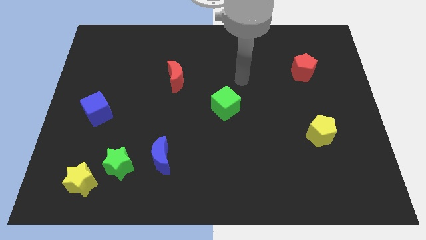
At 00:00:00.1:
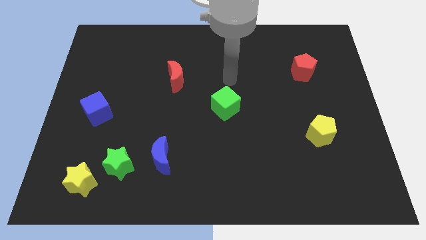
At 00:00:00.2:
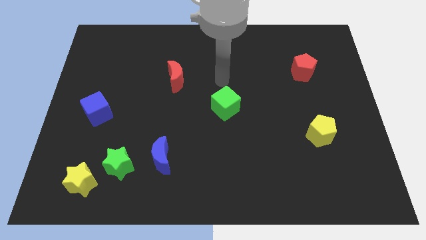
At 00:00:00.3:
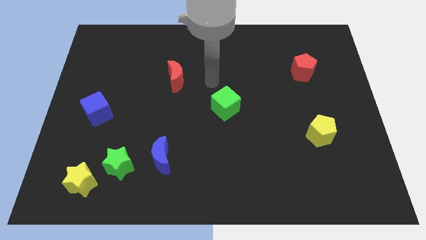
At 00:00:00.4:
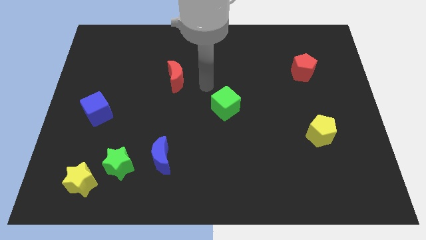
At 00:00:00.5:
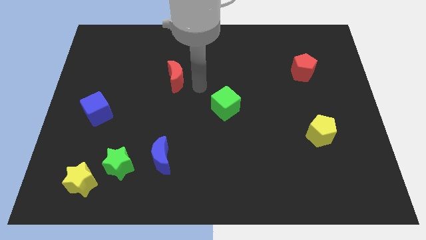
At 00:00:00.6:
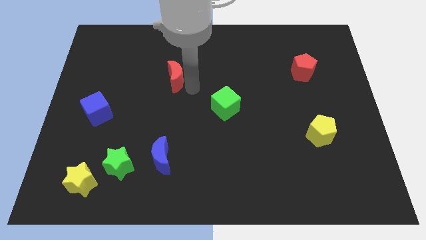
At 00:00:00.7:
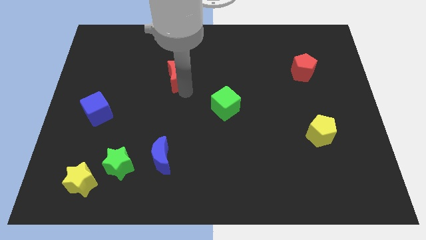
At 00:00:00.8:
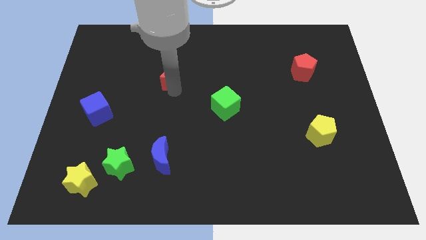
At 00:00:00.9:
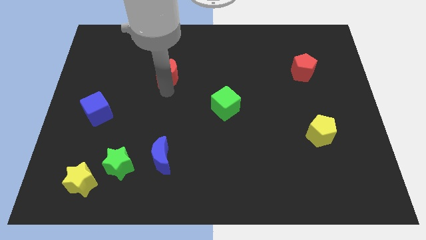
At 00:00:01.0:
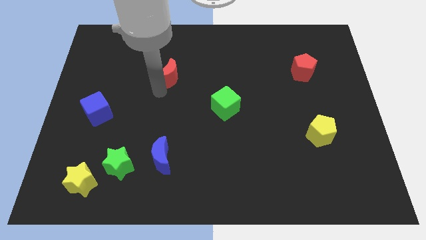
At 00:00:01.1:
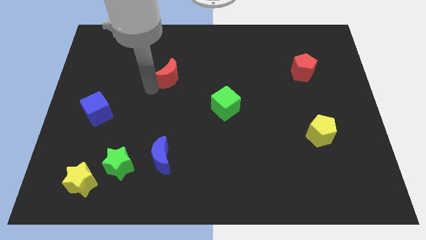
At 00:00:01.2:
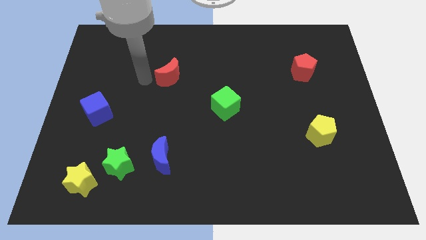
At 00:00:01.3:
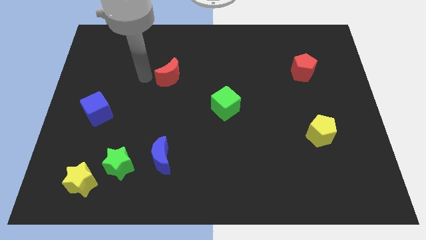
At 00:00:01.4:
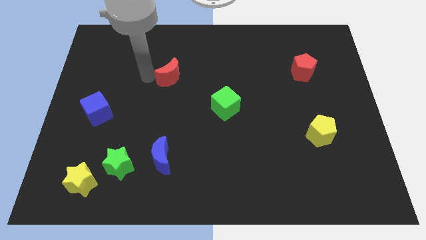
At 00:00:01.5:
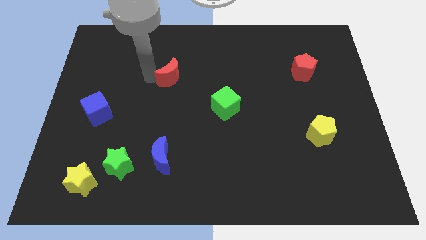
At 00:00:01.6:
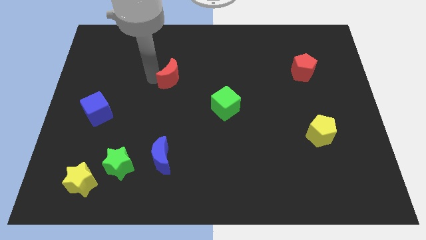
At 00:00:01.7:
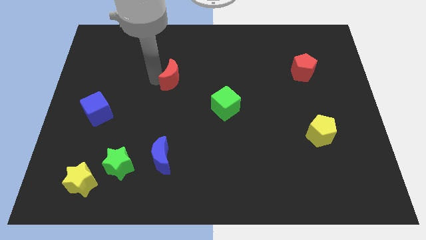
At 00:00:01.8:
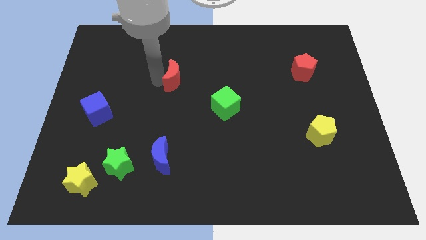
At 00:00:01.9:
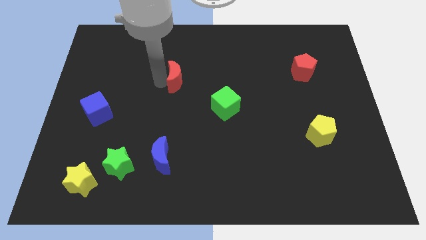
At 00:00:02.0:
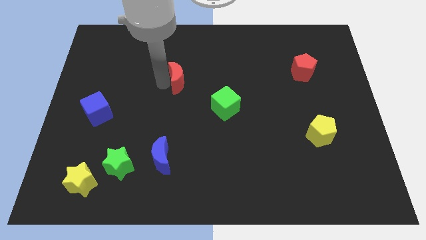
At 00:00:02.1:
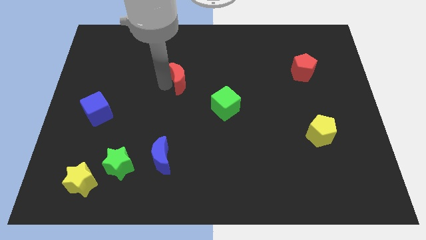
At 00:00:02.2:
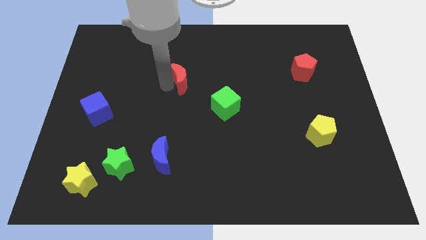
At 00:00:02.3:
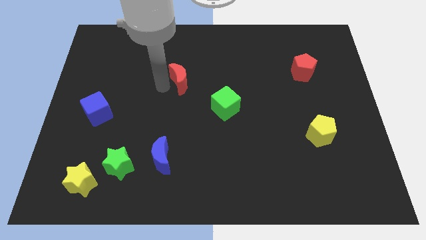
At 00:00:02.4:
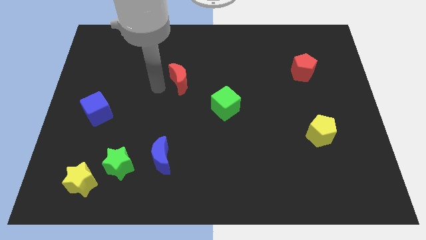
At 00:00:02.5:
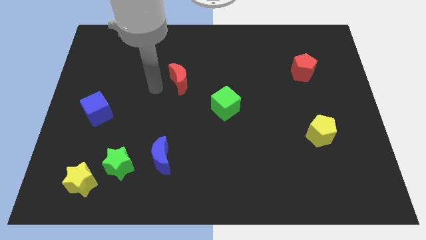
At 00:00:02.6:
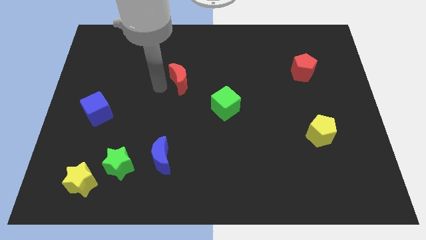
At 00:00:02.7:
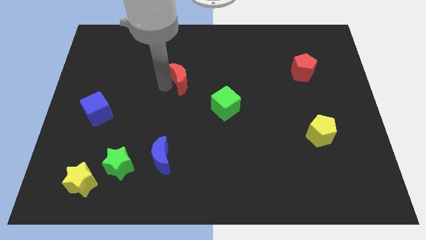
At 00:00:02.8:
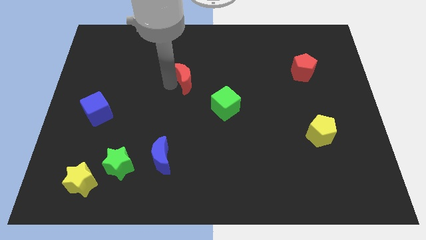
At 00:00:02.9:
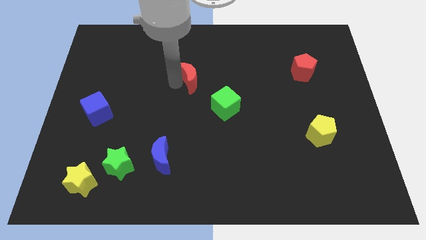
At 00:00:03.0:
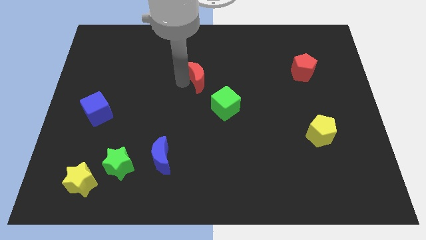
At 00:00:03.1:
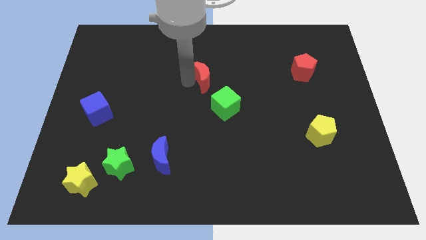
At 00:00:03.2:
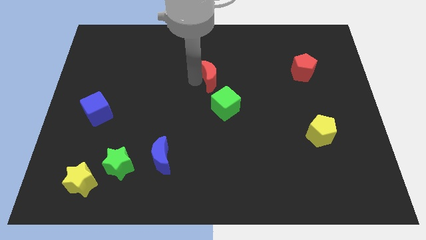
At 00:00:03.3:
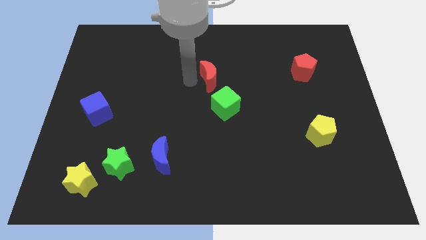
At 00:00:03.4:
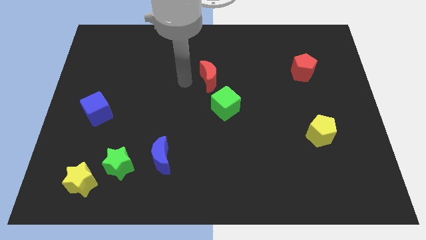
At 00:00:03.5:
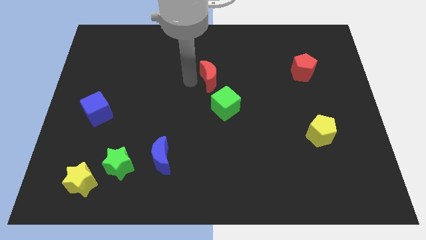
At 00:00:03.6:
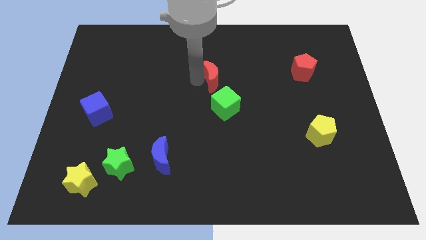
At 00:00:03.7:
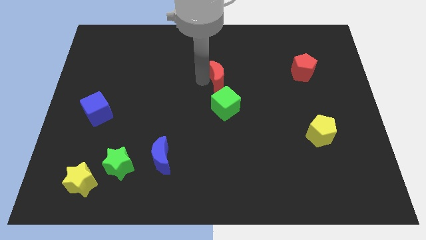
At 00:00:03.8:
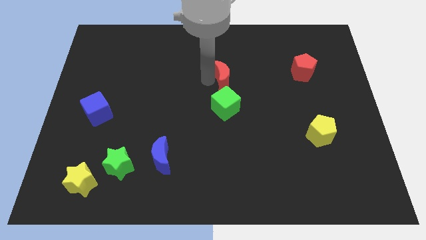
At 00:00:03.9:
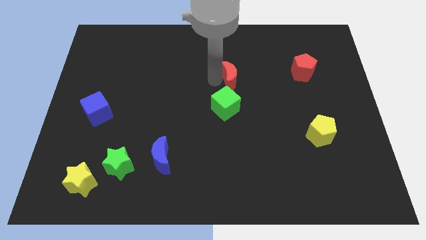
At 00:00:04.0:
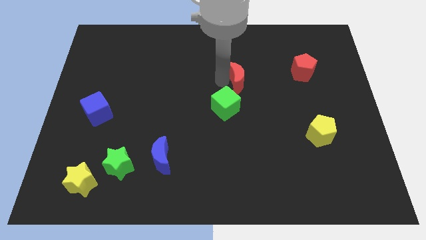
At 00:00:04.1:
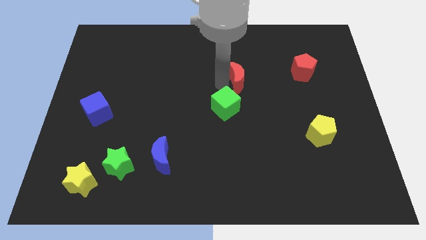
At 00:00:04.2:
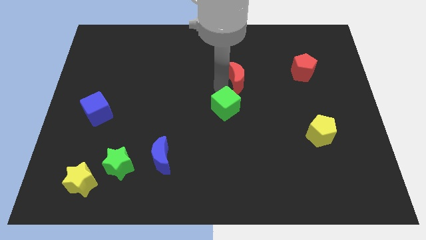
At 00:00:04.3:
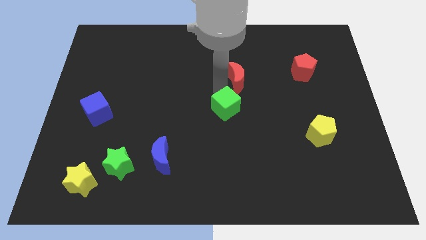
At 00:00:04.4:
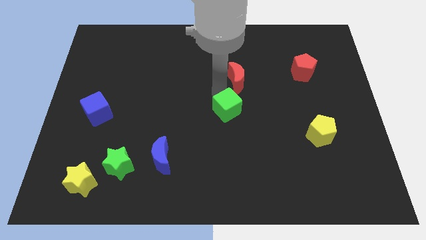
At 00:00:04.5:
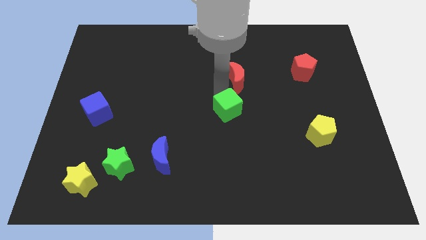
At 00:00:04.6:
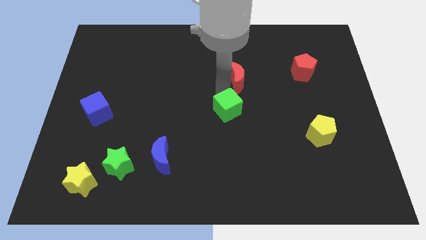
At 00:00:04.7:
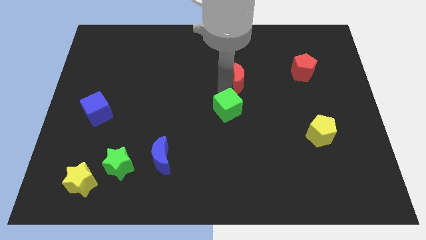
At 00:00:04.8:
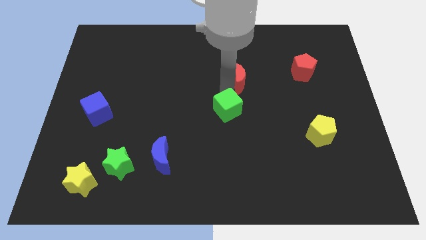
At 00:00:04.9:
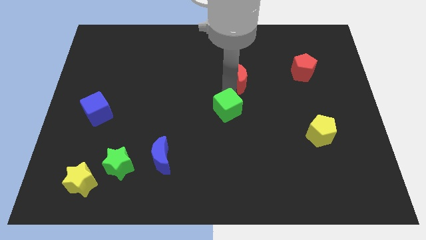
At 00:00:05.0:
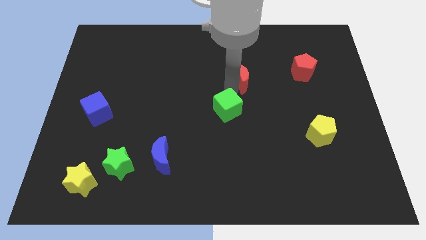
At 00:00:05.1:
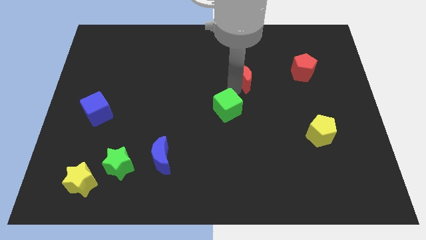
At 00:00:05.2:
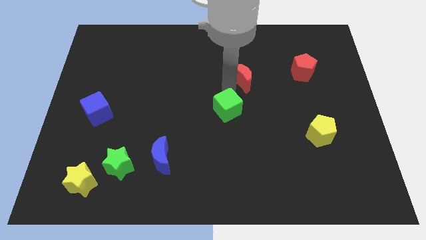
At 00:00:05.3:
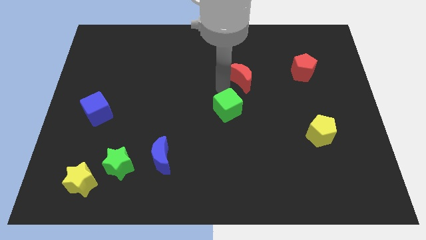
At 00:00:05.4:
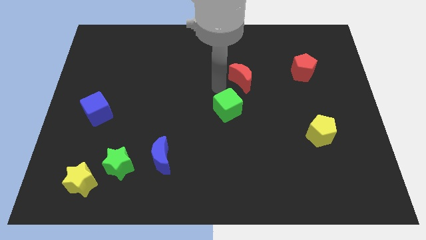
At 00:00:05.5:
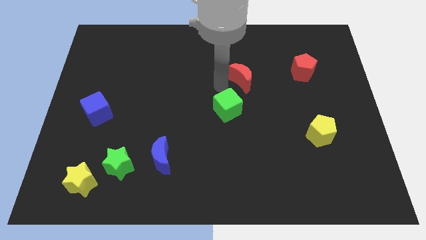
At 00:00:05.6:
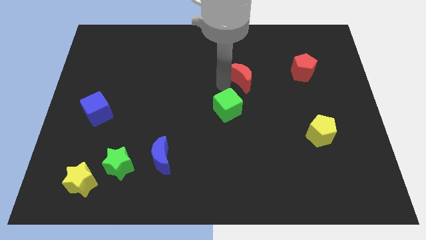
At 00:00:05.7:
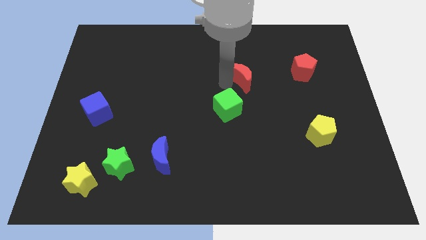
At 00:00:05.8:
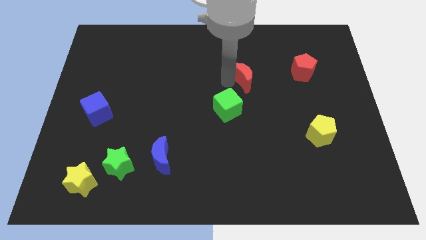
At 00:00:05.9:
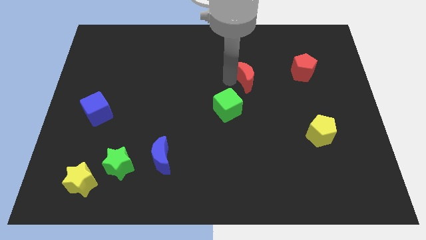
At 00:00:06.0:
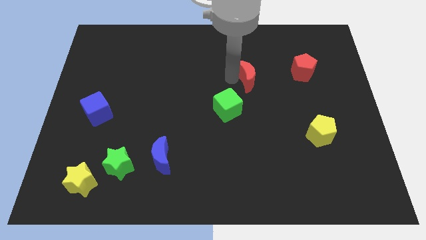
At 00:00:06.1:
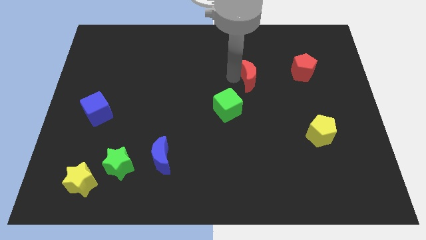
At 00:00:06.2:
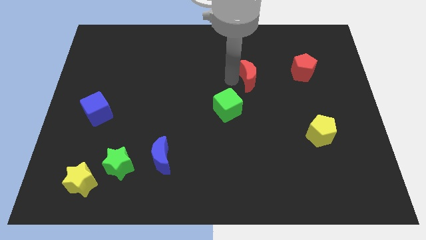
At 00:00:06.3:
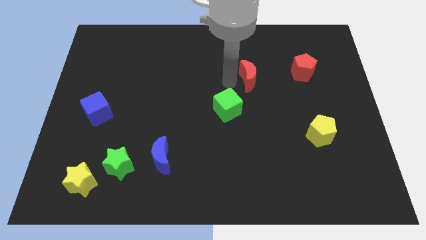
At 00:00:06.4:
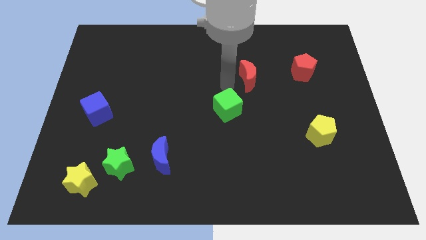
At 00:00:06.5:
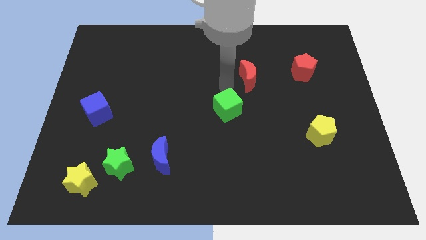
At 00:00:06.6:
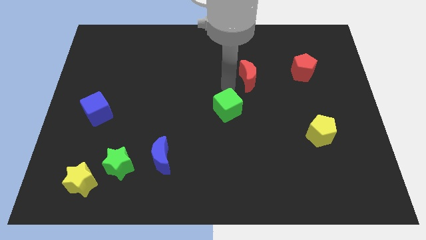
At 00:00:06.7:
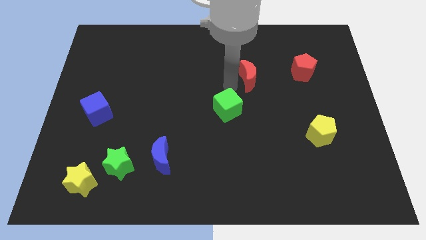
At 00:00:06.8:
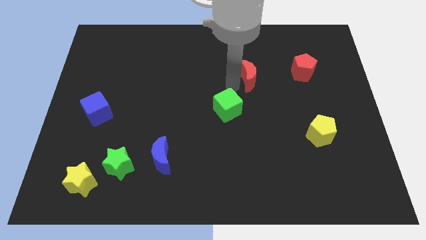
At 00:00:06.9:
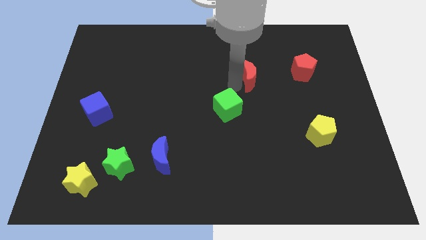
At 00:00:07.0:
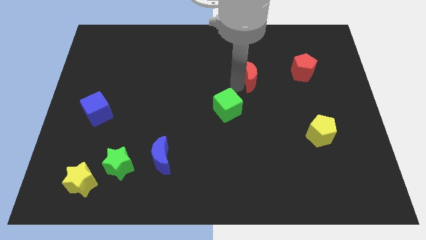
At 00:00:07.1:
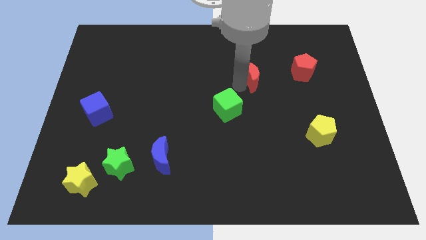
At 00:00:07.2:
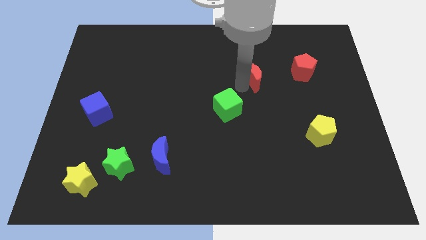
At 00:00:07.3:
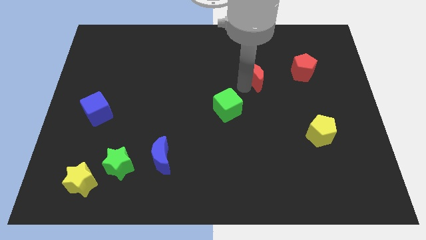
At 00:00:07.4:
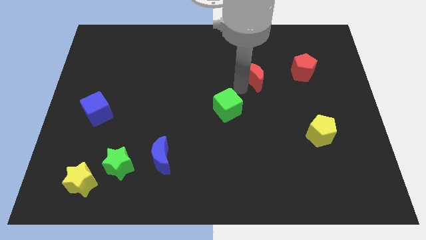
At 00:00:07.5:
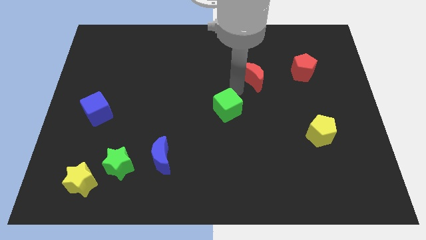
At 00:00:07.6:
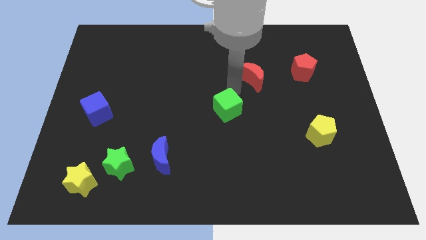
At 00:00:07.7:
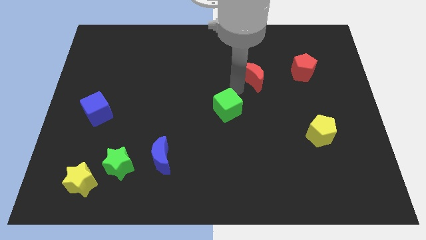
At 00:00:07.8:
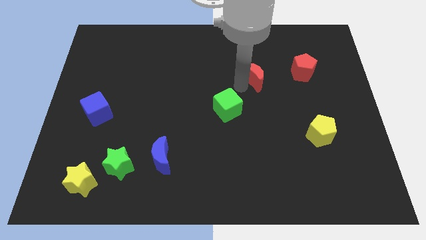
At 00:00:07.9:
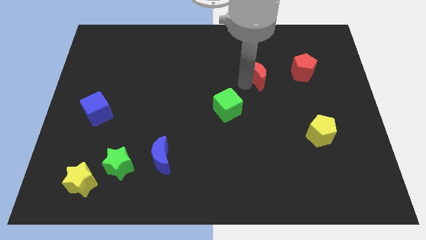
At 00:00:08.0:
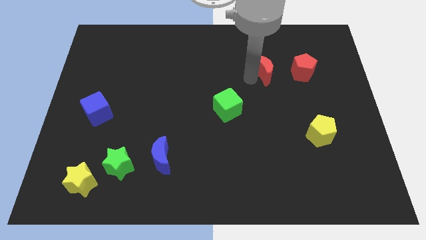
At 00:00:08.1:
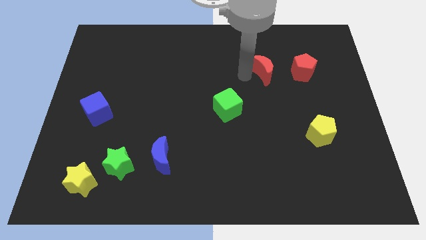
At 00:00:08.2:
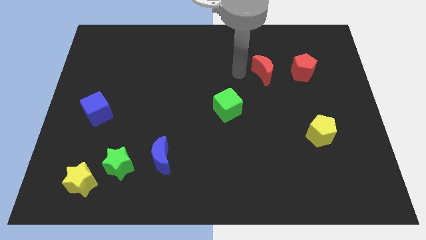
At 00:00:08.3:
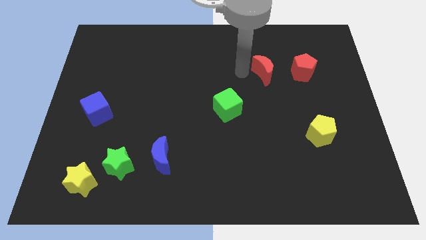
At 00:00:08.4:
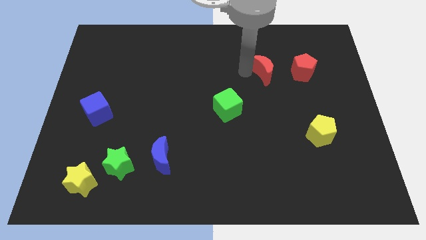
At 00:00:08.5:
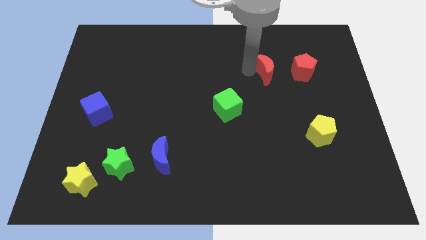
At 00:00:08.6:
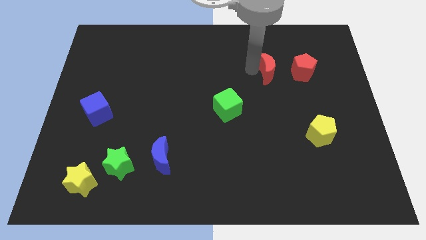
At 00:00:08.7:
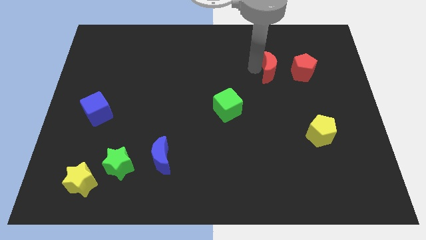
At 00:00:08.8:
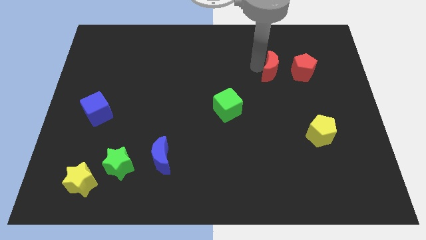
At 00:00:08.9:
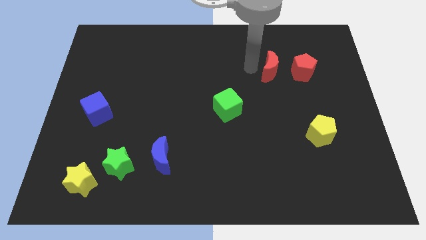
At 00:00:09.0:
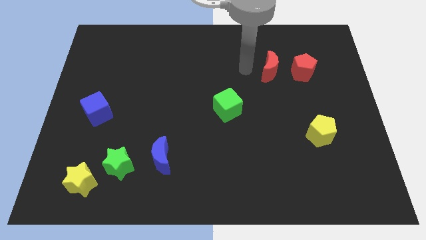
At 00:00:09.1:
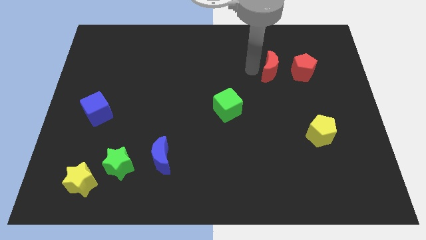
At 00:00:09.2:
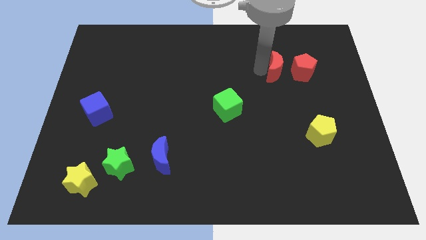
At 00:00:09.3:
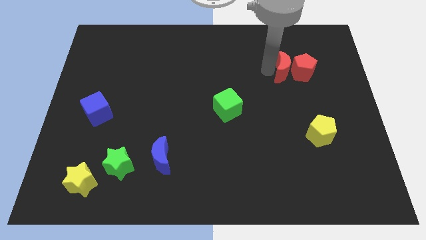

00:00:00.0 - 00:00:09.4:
move the red moon close to the red pentagon
